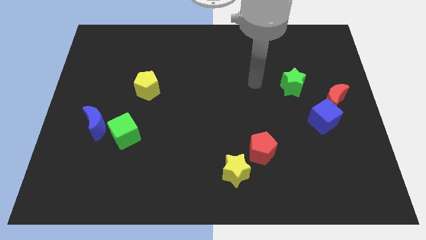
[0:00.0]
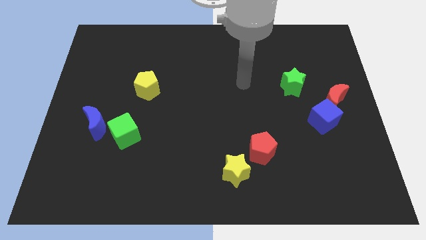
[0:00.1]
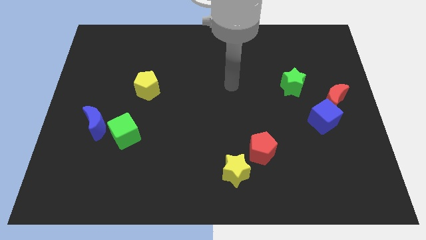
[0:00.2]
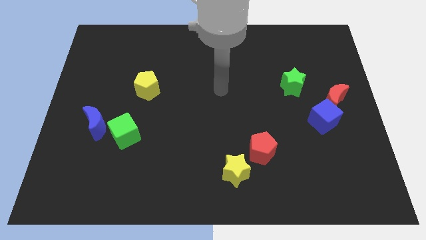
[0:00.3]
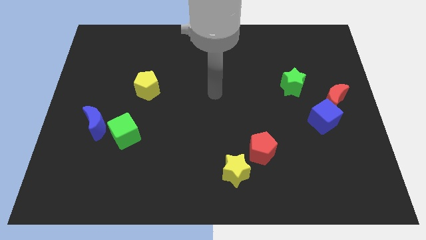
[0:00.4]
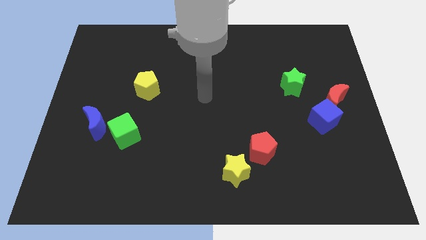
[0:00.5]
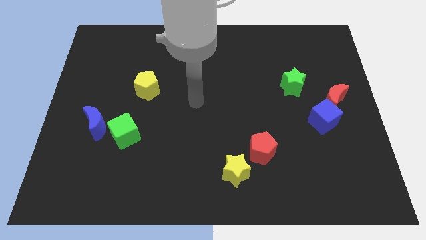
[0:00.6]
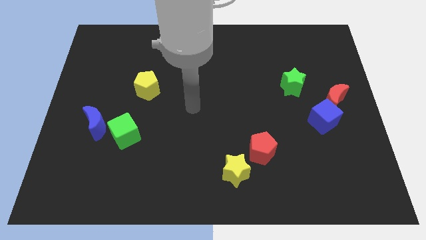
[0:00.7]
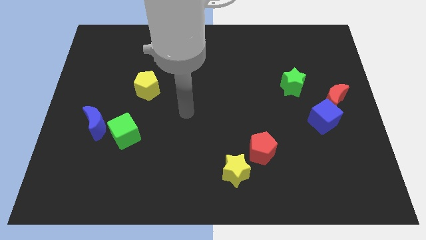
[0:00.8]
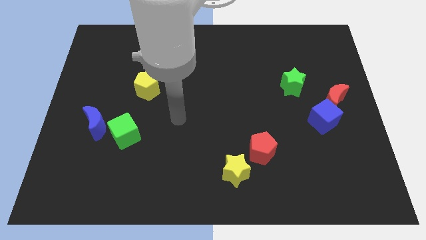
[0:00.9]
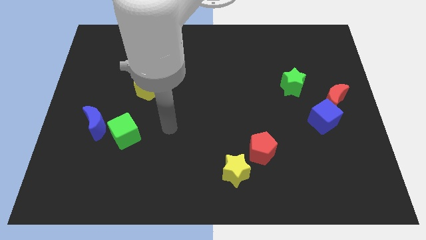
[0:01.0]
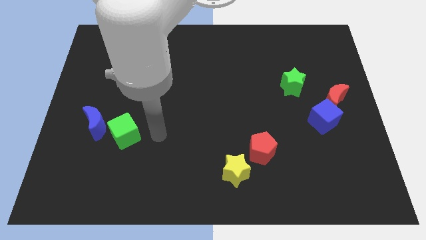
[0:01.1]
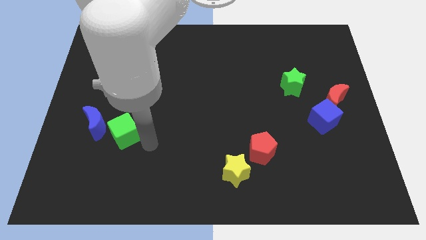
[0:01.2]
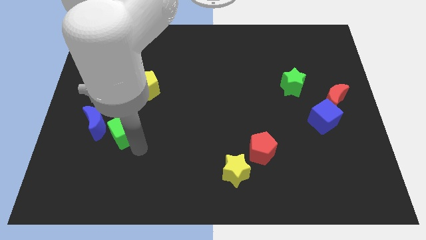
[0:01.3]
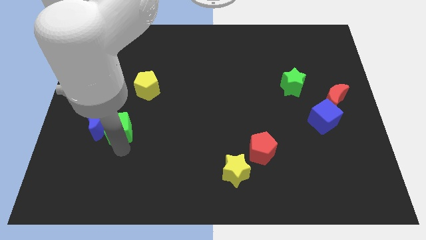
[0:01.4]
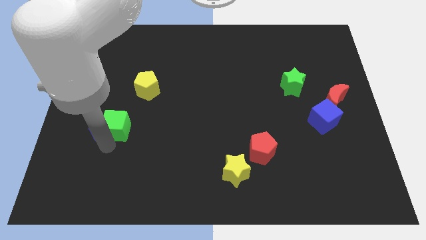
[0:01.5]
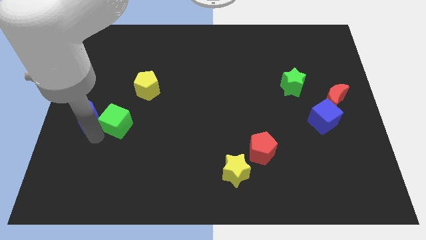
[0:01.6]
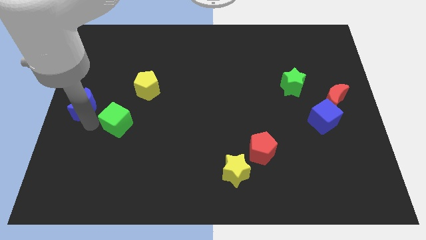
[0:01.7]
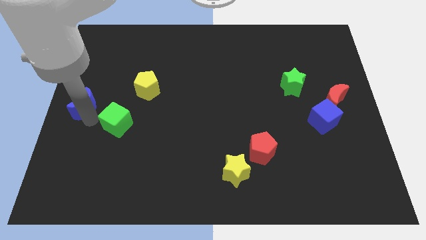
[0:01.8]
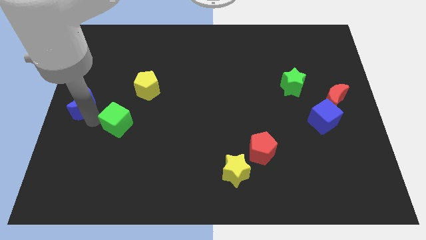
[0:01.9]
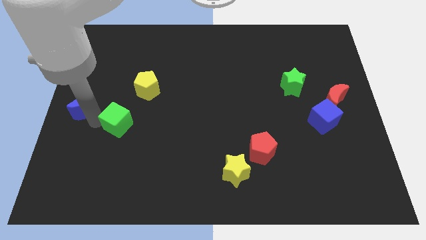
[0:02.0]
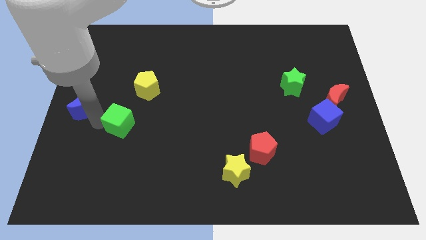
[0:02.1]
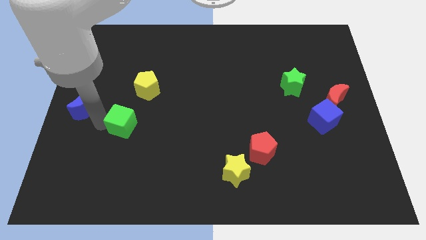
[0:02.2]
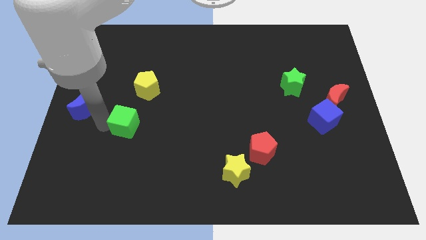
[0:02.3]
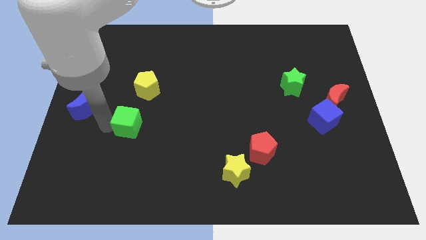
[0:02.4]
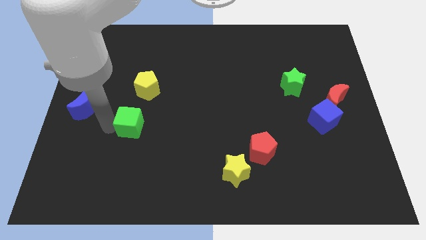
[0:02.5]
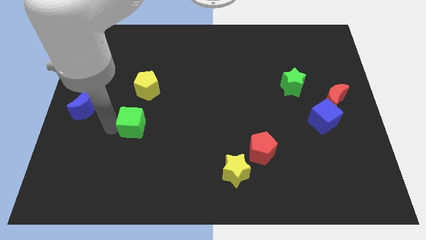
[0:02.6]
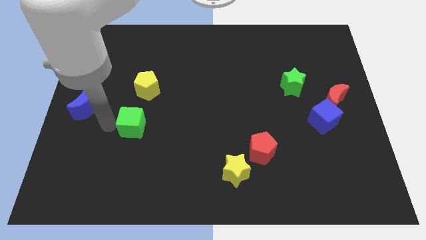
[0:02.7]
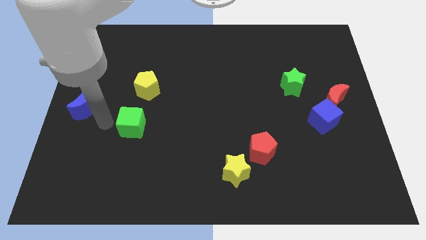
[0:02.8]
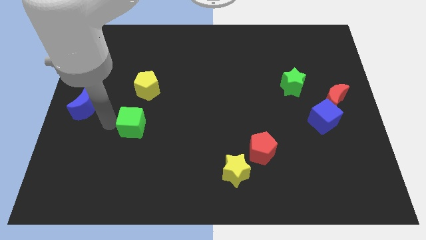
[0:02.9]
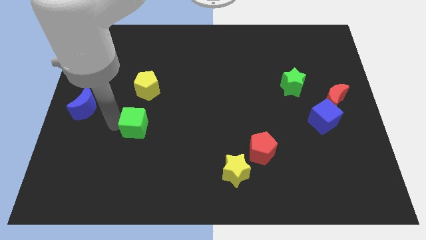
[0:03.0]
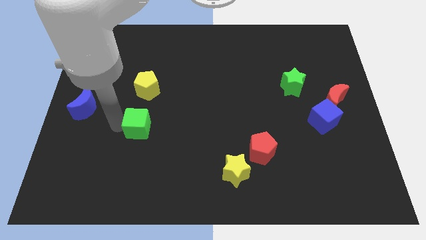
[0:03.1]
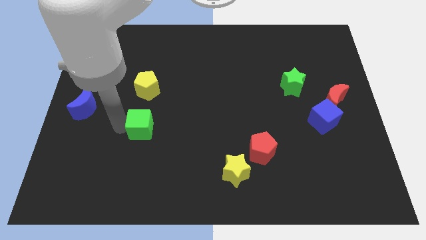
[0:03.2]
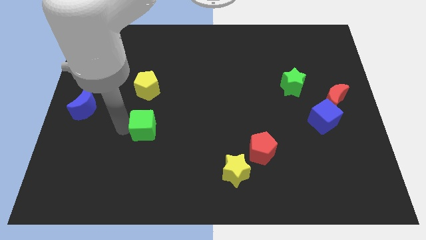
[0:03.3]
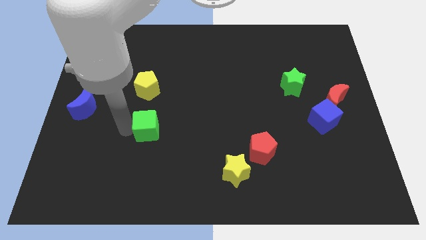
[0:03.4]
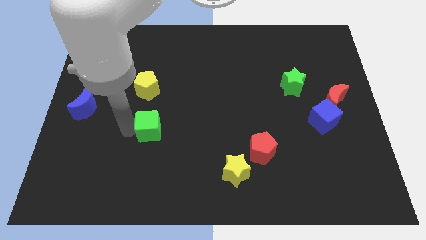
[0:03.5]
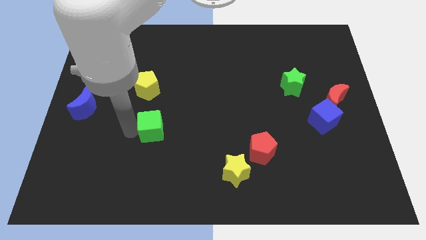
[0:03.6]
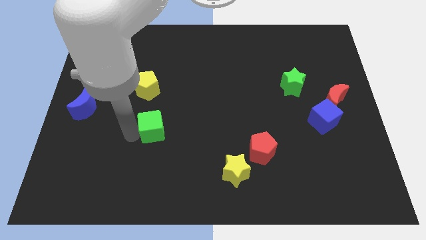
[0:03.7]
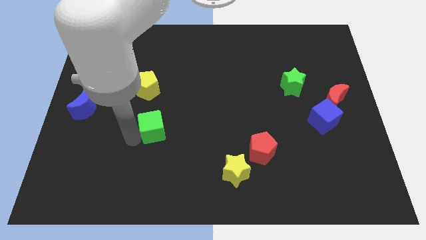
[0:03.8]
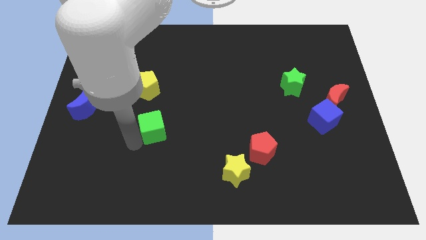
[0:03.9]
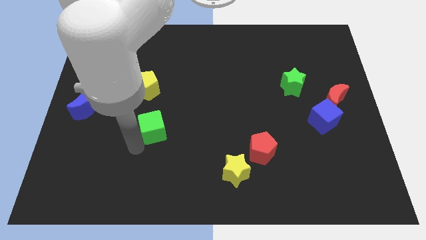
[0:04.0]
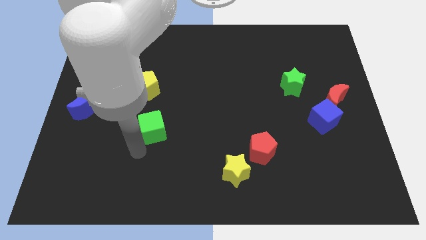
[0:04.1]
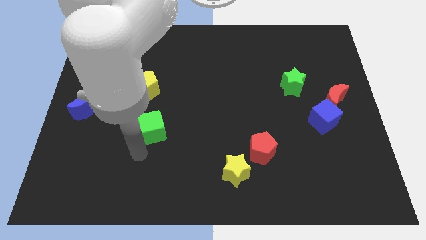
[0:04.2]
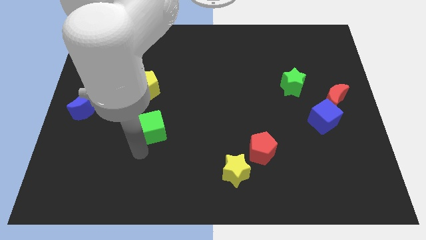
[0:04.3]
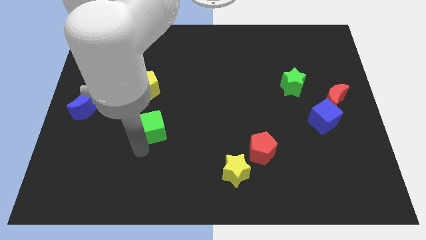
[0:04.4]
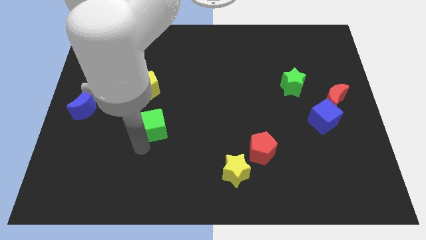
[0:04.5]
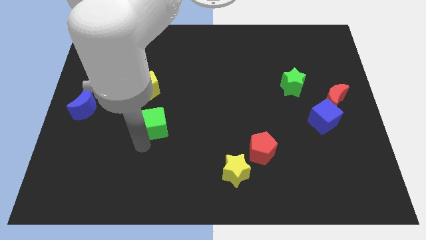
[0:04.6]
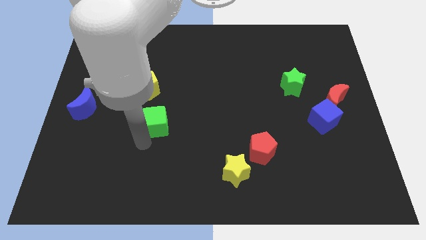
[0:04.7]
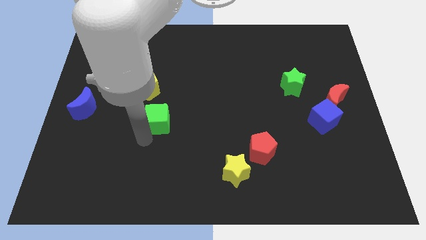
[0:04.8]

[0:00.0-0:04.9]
slightly slide the green cube diagonally upwards and right

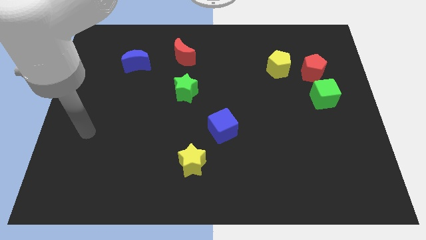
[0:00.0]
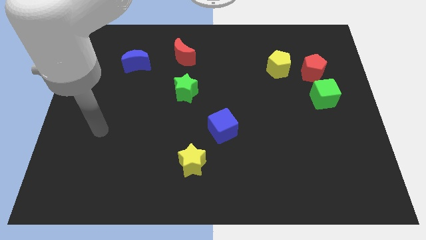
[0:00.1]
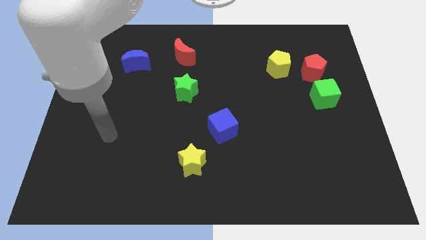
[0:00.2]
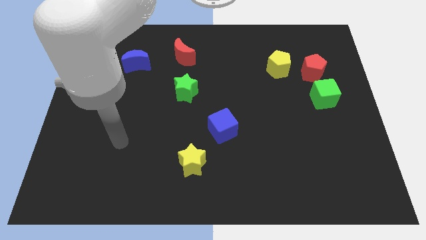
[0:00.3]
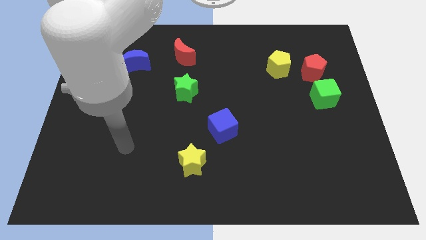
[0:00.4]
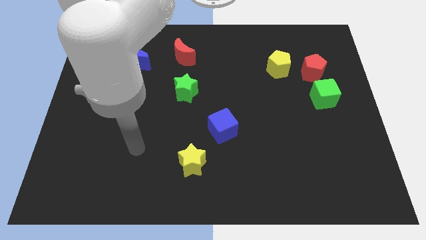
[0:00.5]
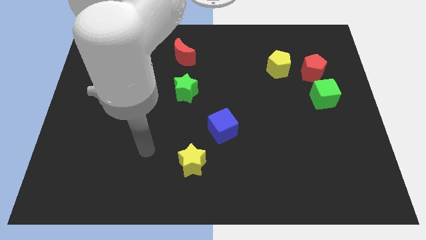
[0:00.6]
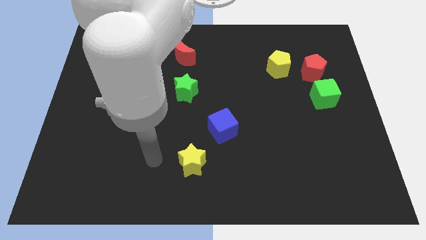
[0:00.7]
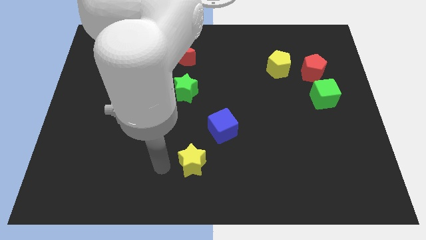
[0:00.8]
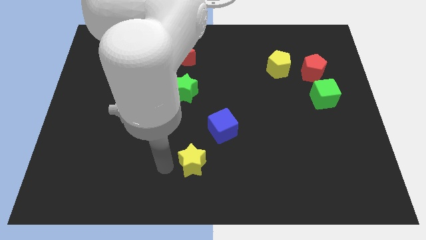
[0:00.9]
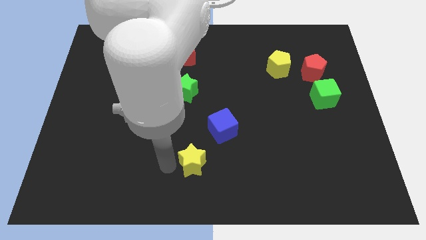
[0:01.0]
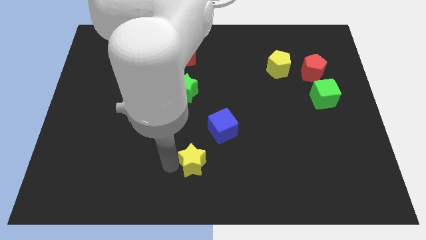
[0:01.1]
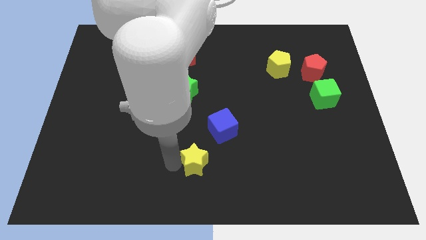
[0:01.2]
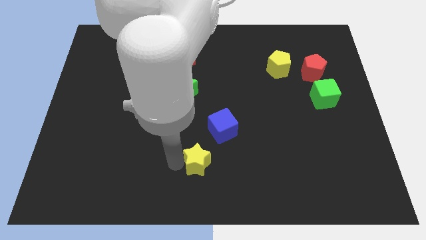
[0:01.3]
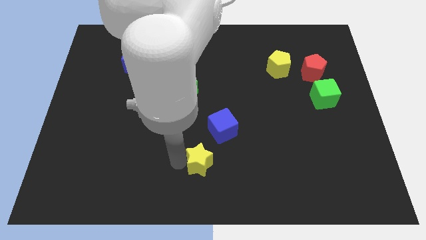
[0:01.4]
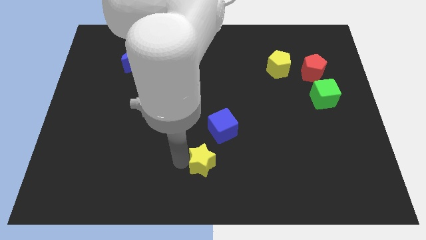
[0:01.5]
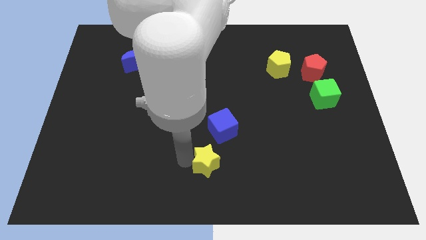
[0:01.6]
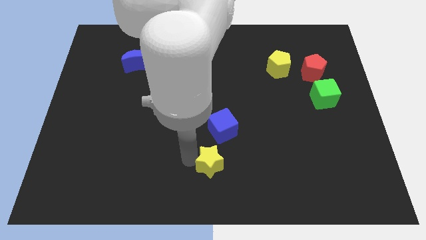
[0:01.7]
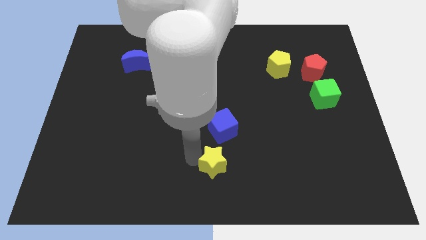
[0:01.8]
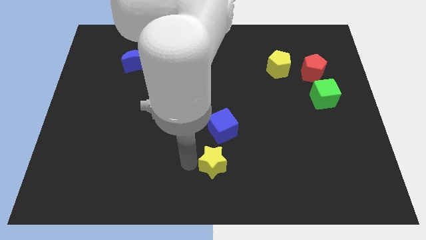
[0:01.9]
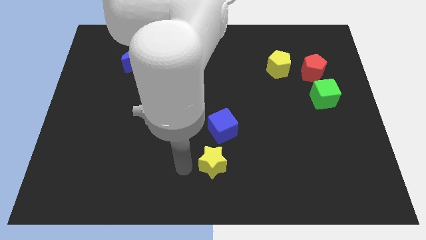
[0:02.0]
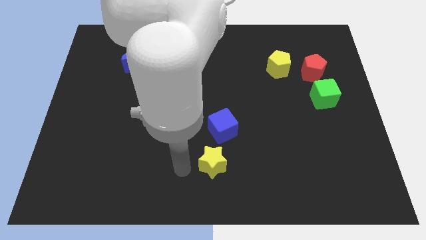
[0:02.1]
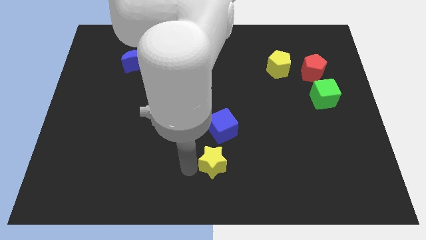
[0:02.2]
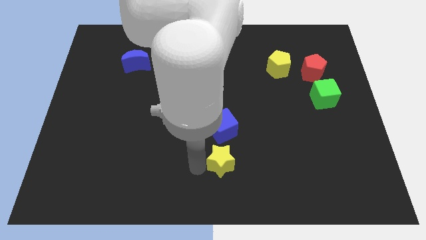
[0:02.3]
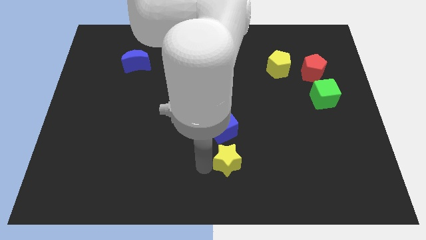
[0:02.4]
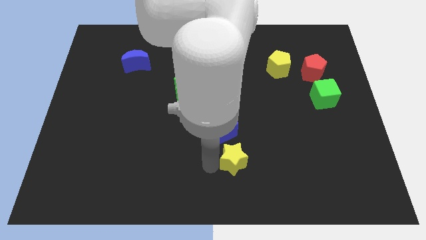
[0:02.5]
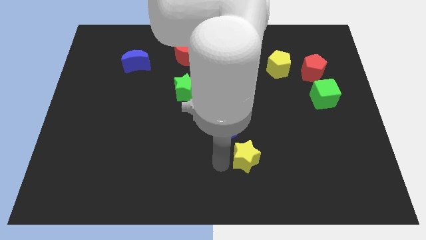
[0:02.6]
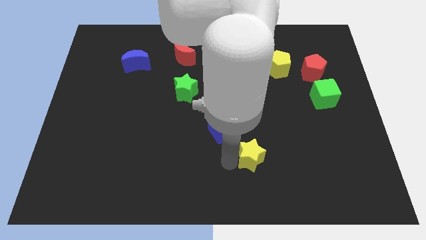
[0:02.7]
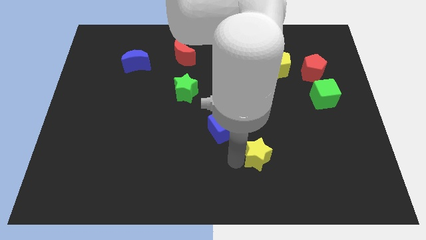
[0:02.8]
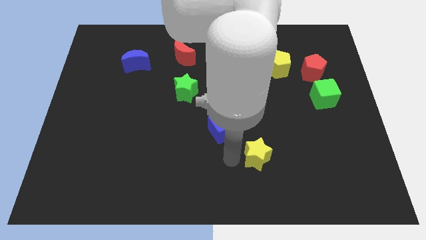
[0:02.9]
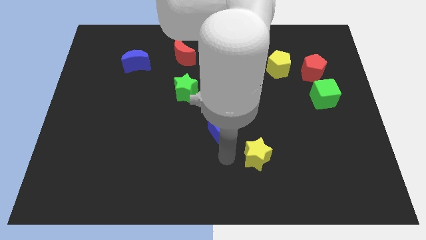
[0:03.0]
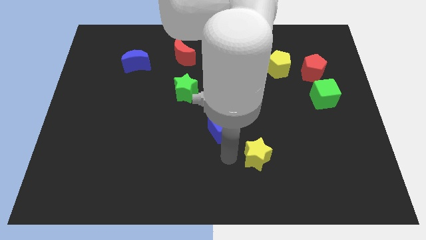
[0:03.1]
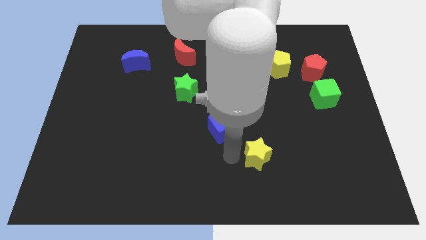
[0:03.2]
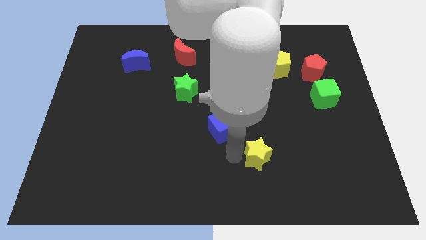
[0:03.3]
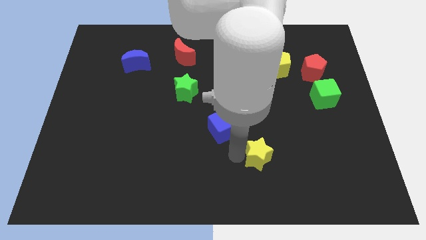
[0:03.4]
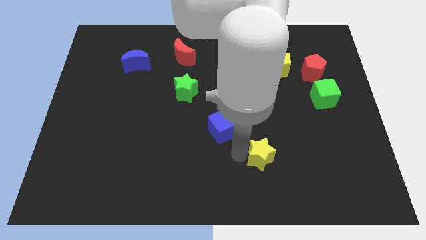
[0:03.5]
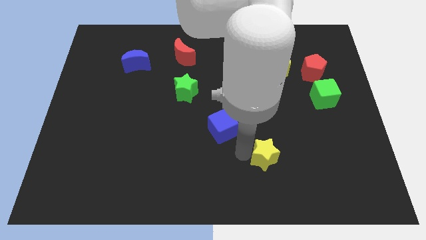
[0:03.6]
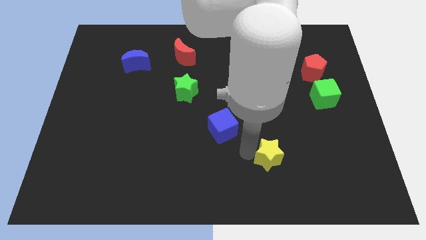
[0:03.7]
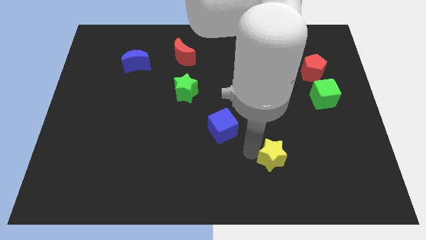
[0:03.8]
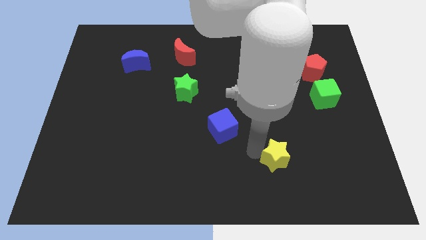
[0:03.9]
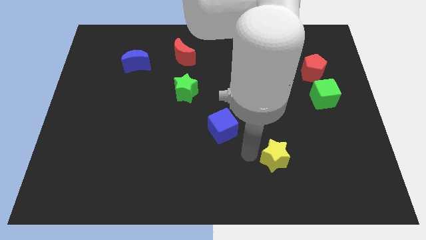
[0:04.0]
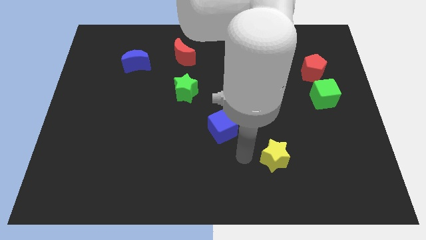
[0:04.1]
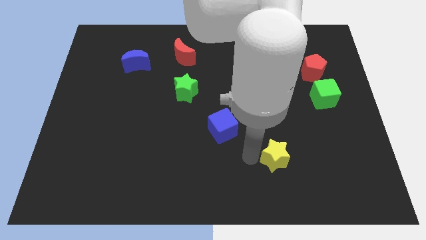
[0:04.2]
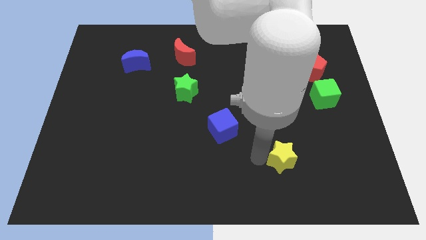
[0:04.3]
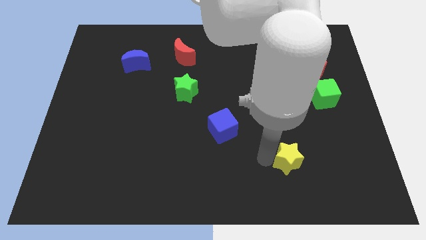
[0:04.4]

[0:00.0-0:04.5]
slide the yellow star to the right
